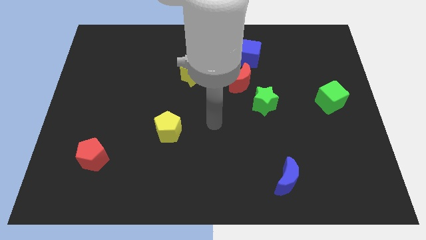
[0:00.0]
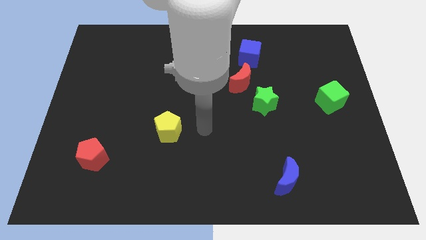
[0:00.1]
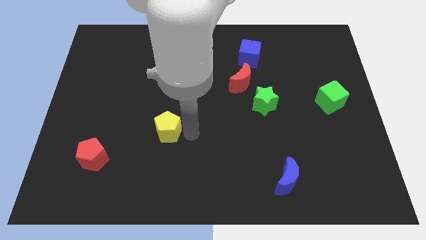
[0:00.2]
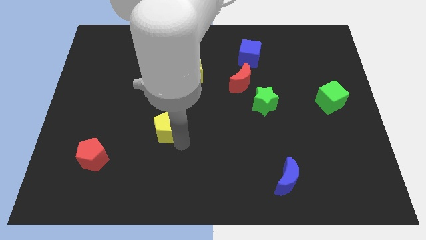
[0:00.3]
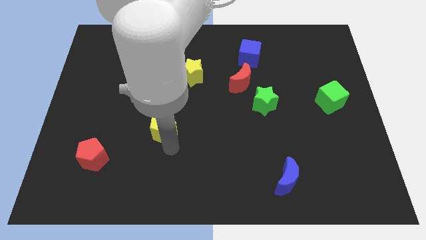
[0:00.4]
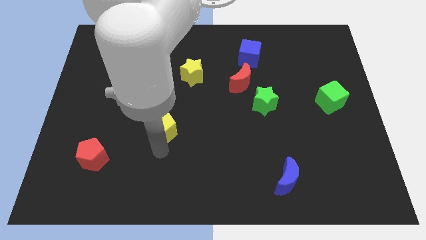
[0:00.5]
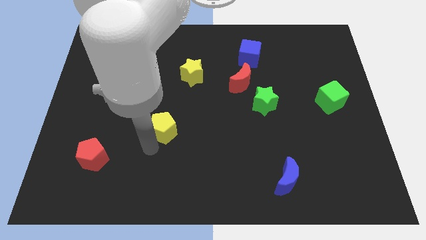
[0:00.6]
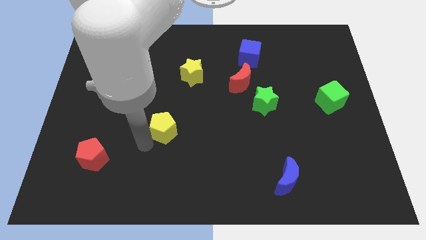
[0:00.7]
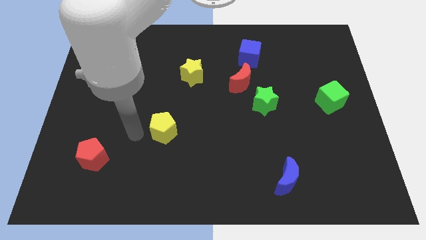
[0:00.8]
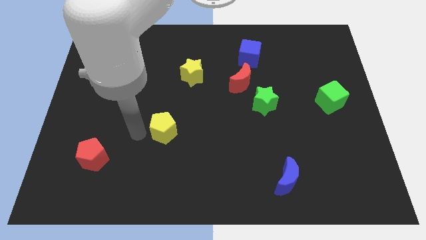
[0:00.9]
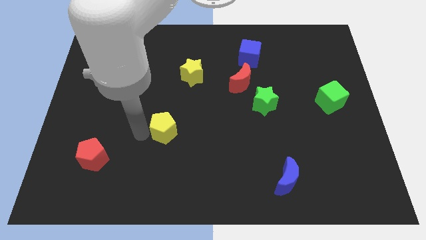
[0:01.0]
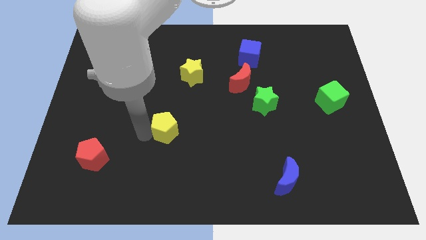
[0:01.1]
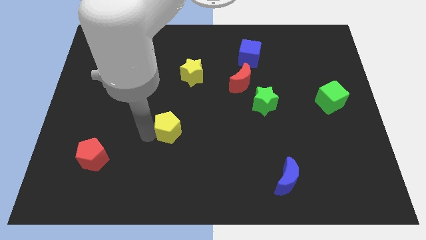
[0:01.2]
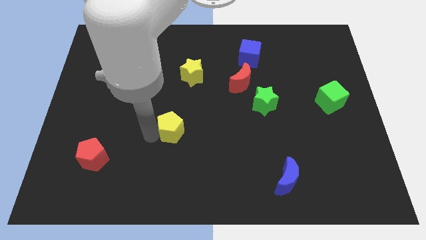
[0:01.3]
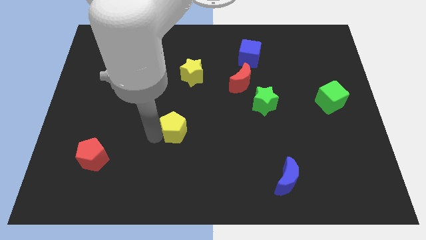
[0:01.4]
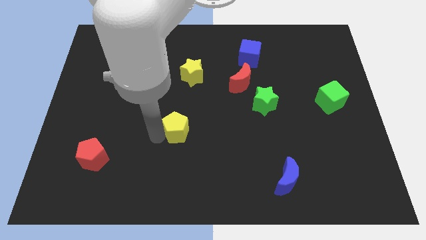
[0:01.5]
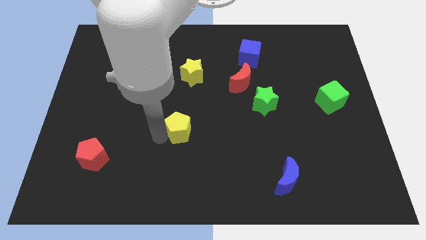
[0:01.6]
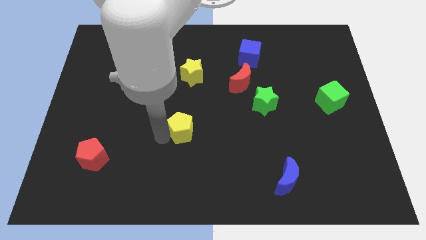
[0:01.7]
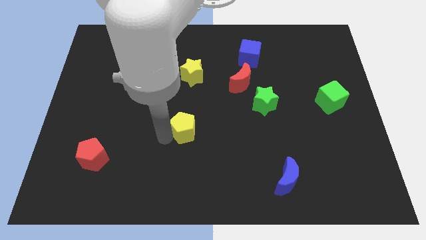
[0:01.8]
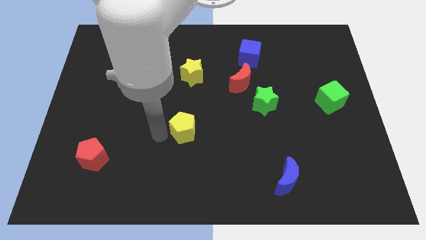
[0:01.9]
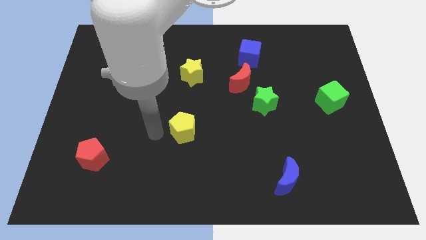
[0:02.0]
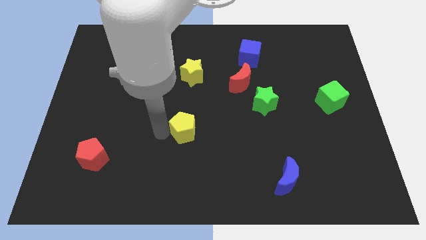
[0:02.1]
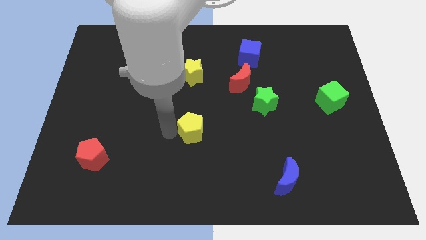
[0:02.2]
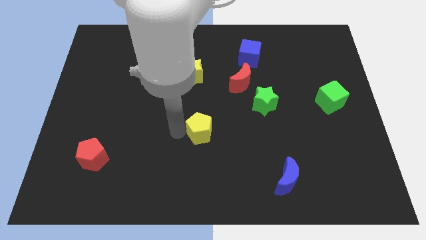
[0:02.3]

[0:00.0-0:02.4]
slightly slide the yellow pentagon to the right

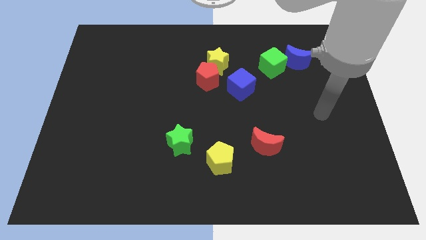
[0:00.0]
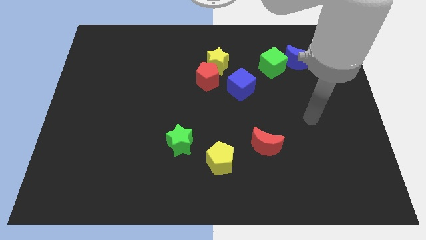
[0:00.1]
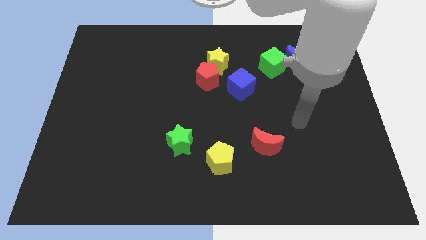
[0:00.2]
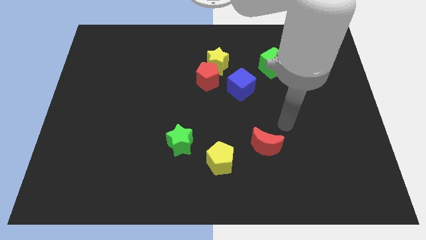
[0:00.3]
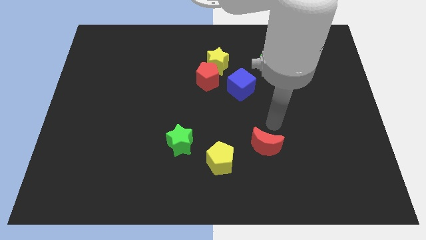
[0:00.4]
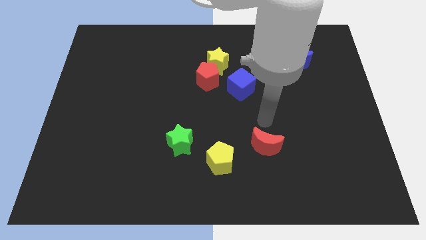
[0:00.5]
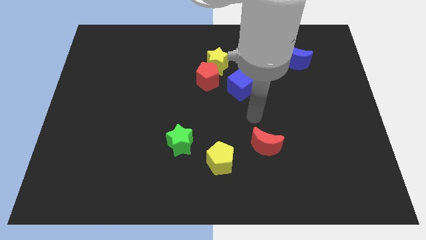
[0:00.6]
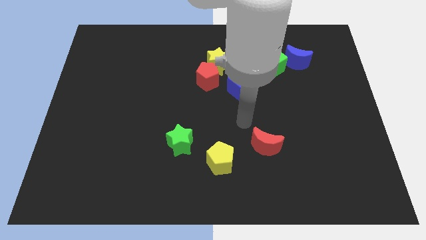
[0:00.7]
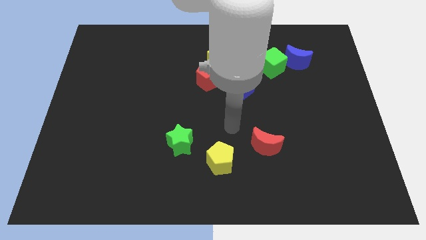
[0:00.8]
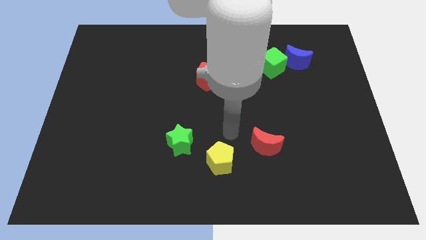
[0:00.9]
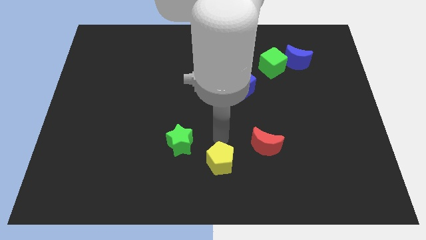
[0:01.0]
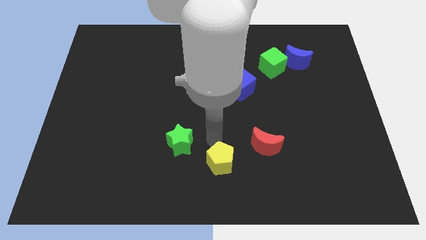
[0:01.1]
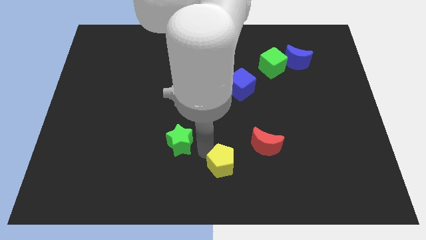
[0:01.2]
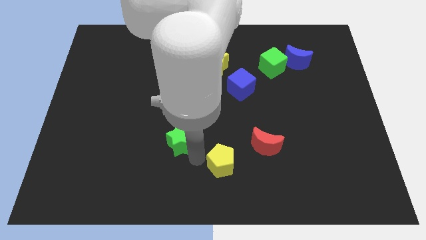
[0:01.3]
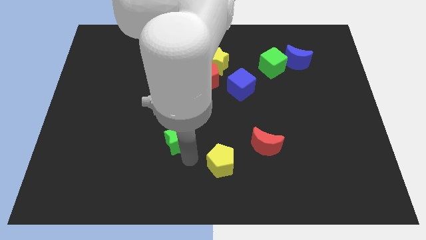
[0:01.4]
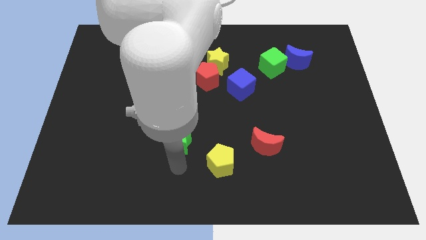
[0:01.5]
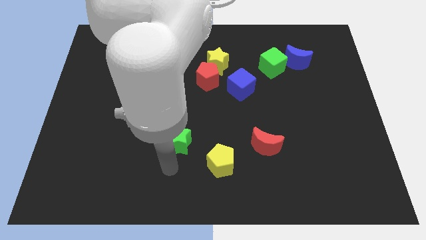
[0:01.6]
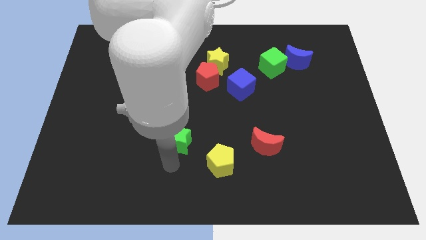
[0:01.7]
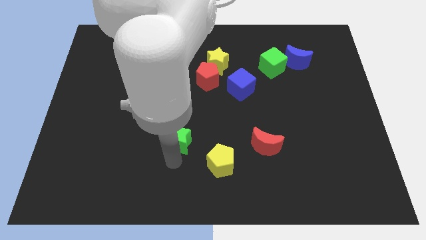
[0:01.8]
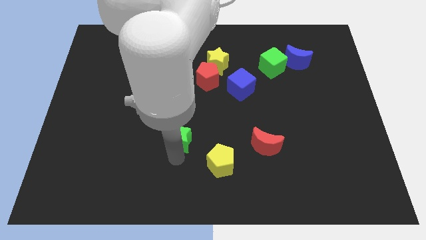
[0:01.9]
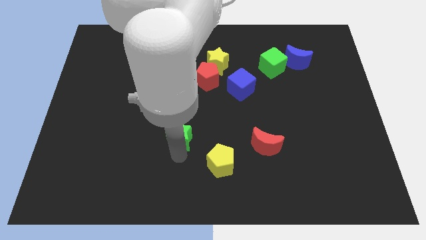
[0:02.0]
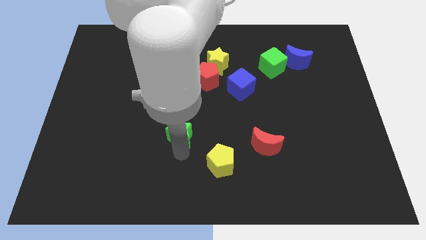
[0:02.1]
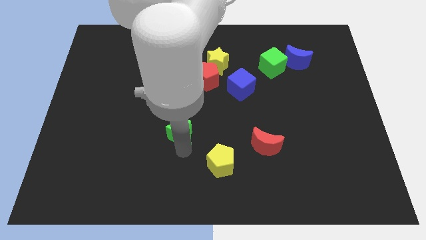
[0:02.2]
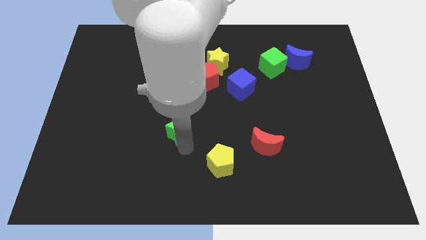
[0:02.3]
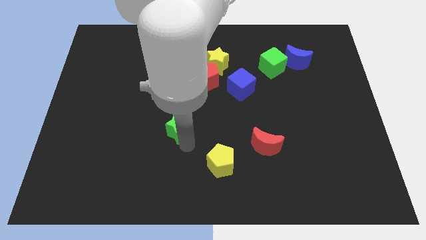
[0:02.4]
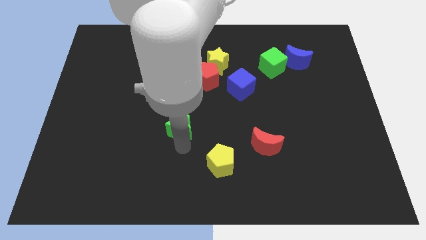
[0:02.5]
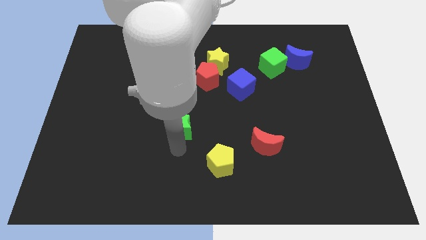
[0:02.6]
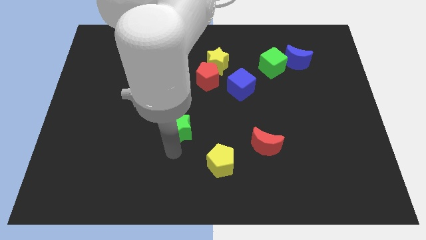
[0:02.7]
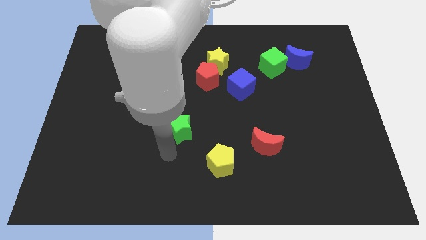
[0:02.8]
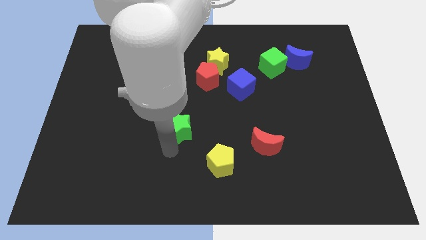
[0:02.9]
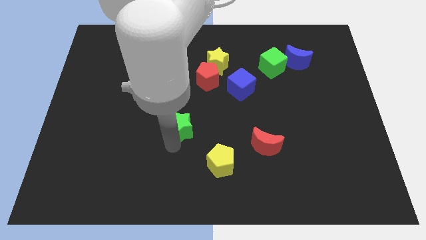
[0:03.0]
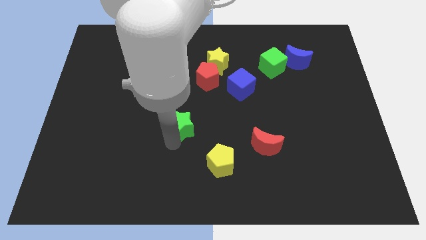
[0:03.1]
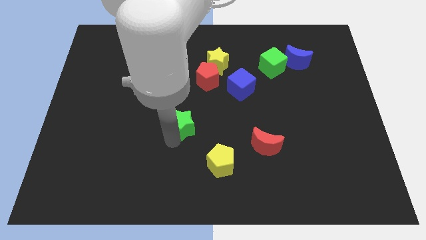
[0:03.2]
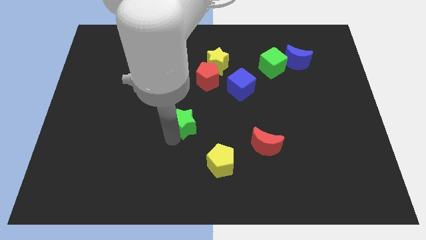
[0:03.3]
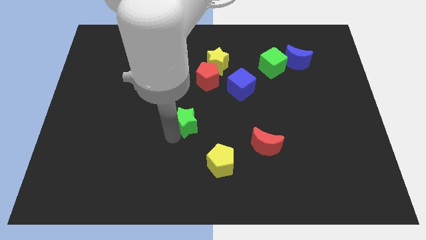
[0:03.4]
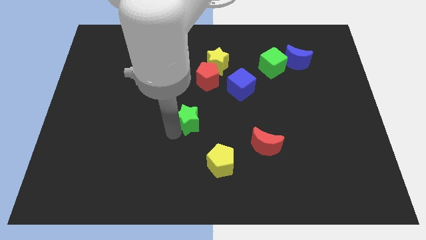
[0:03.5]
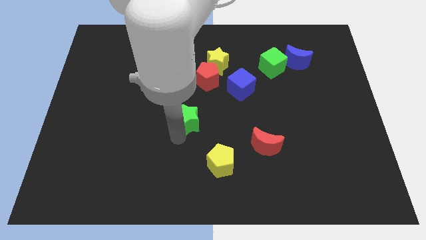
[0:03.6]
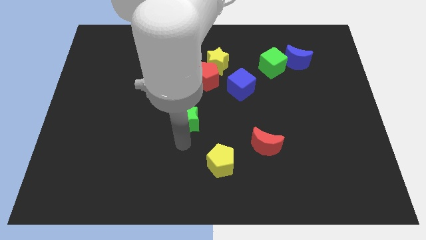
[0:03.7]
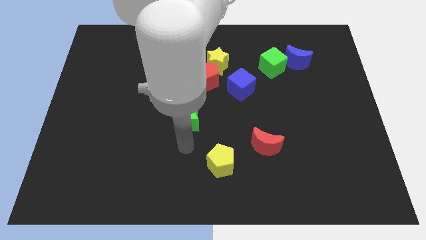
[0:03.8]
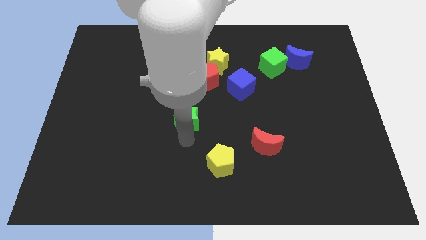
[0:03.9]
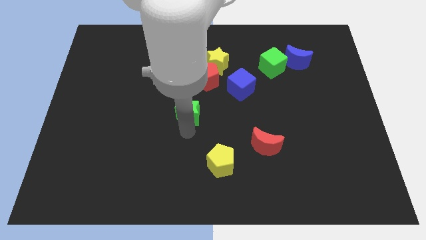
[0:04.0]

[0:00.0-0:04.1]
slide the green star a little bit upwards

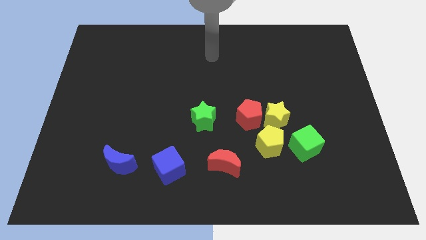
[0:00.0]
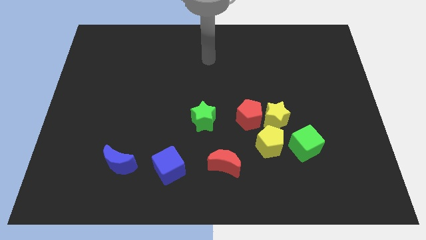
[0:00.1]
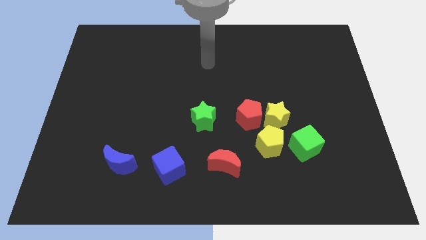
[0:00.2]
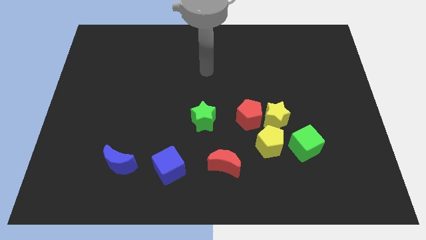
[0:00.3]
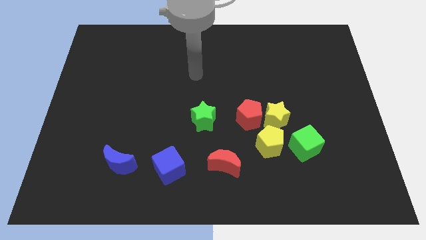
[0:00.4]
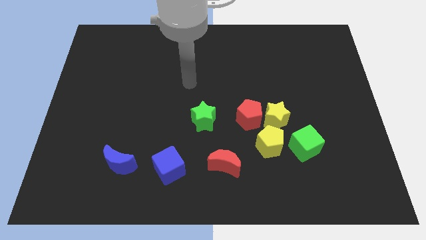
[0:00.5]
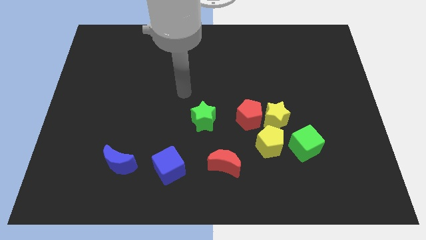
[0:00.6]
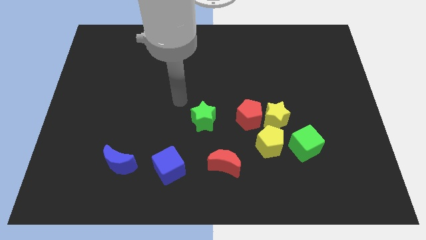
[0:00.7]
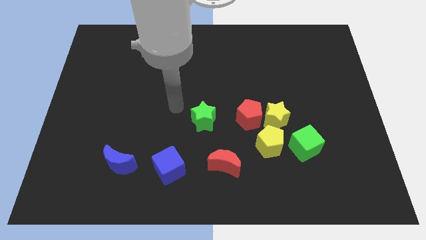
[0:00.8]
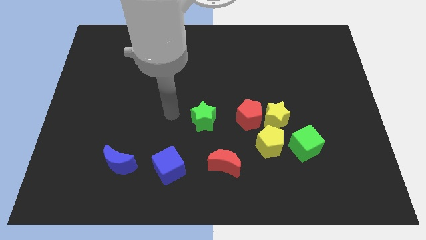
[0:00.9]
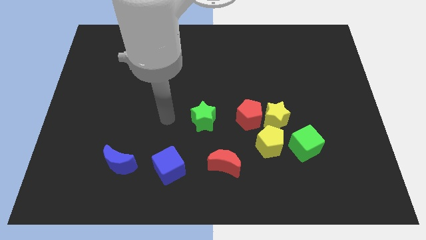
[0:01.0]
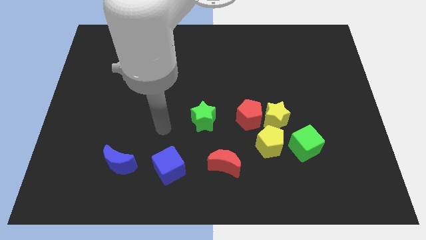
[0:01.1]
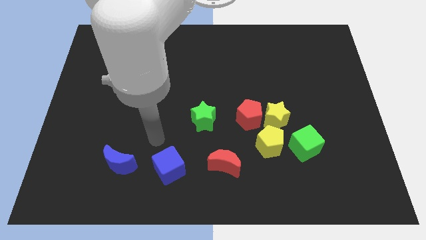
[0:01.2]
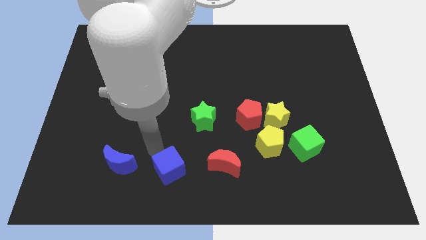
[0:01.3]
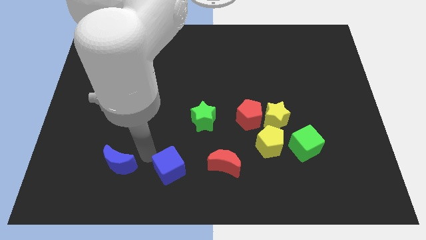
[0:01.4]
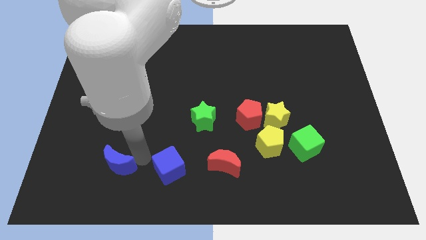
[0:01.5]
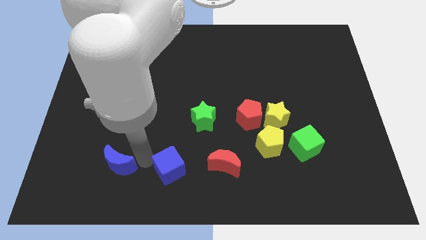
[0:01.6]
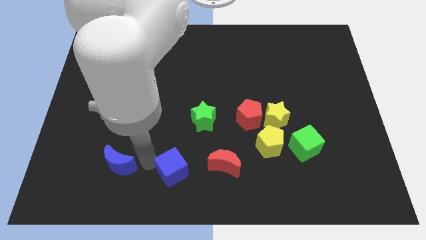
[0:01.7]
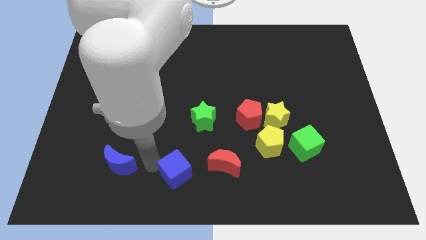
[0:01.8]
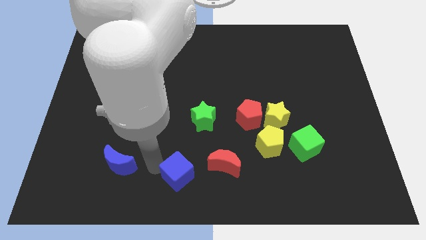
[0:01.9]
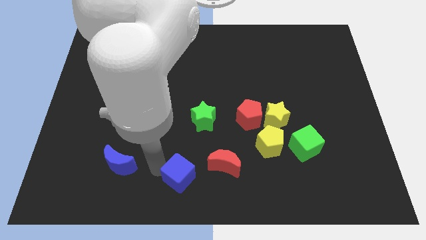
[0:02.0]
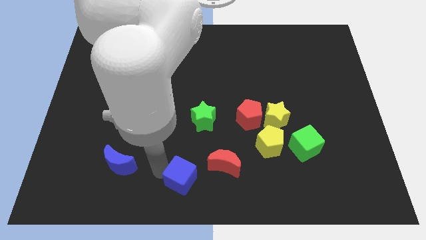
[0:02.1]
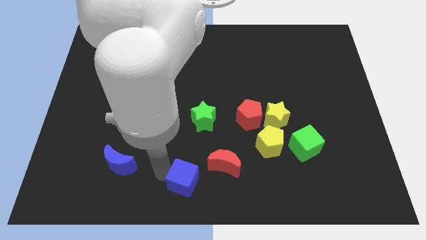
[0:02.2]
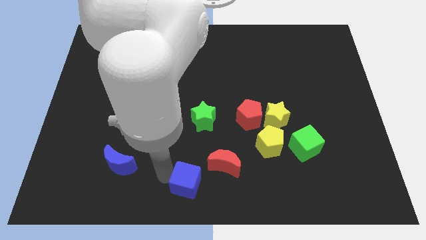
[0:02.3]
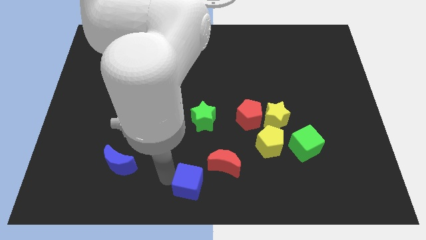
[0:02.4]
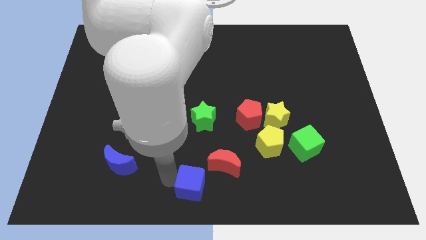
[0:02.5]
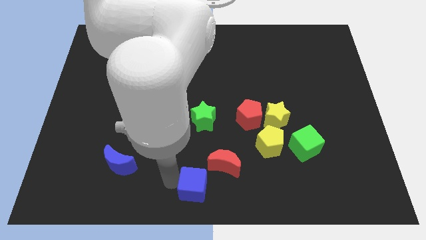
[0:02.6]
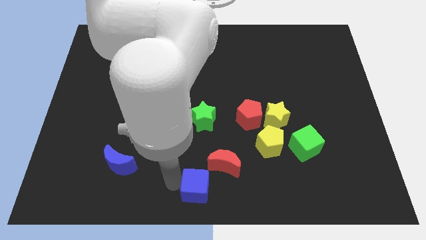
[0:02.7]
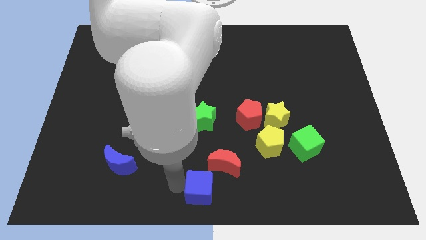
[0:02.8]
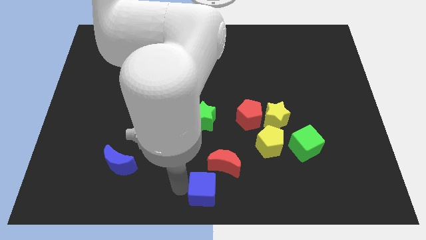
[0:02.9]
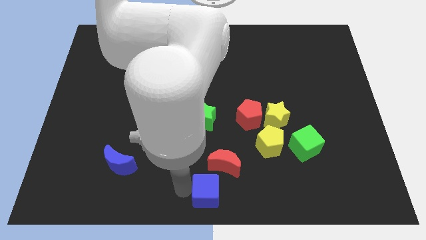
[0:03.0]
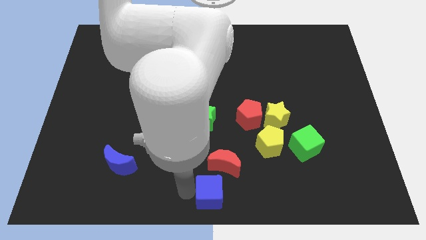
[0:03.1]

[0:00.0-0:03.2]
slide the blue cube slightly to the right
